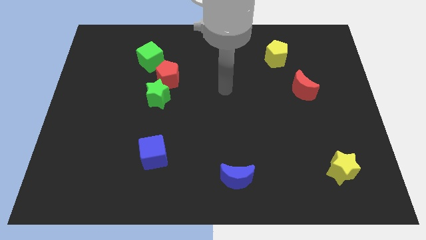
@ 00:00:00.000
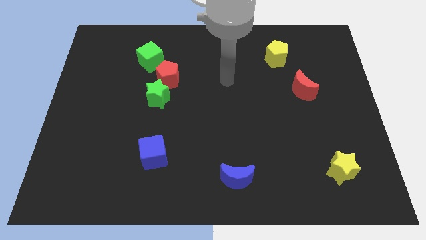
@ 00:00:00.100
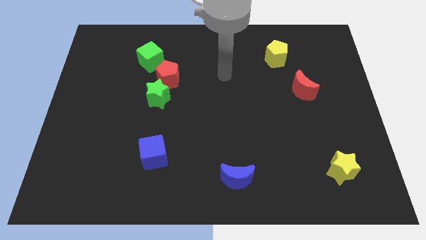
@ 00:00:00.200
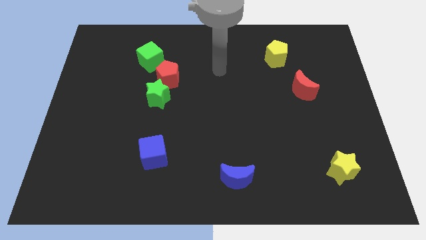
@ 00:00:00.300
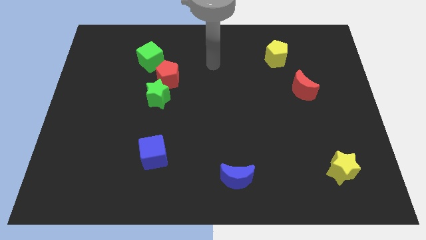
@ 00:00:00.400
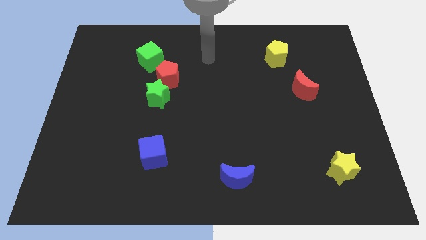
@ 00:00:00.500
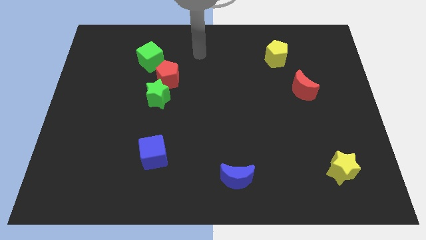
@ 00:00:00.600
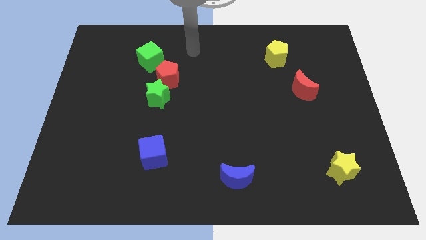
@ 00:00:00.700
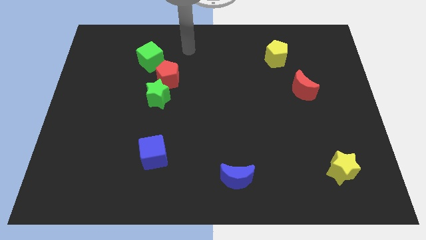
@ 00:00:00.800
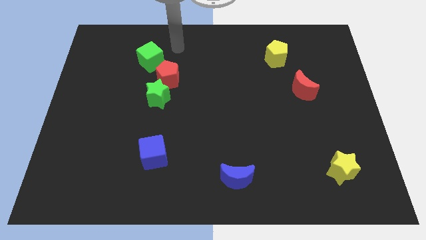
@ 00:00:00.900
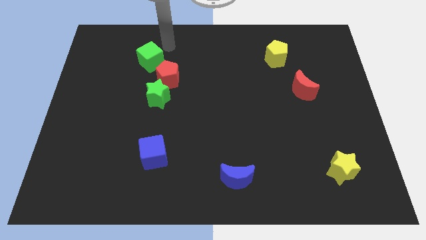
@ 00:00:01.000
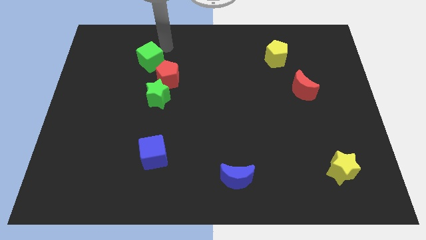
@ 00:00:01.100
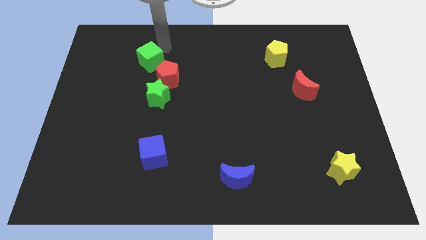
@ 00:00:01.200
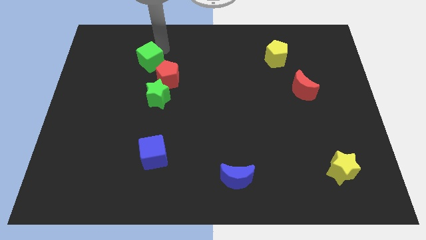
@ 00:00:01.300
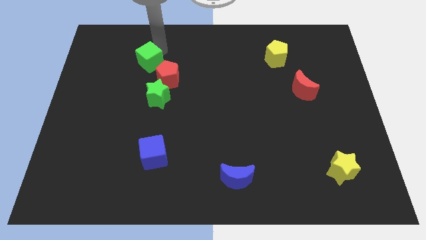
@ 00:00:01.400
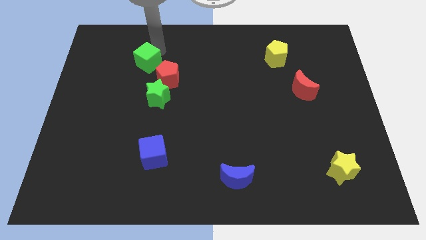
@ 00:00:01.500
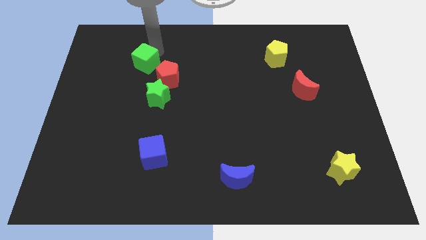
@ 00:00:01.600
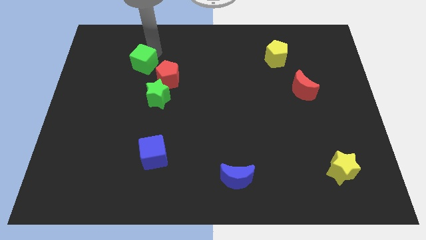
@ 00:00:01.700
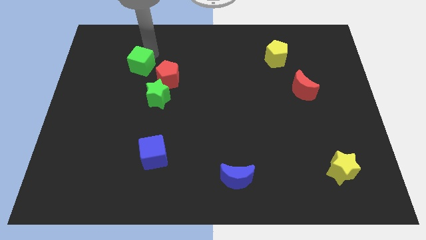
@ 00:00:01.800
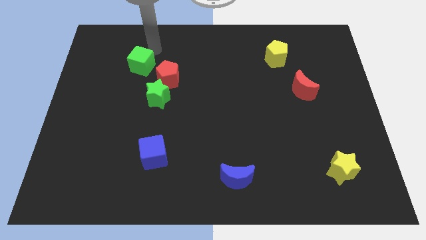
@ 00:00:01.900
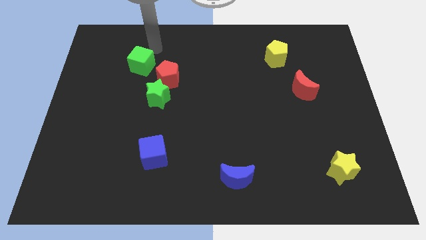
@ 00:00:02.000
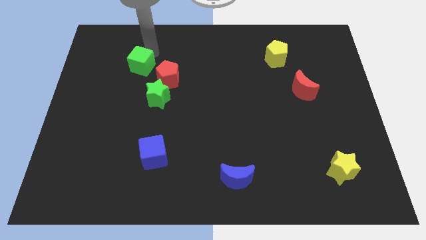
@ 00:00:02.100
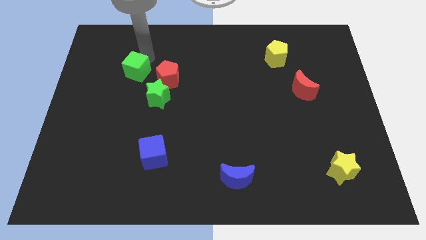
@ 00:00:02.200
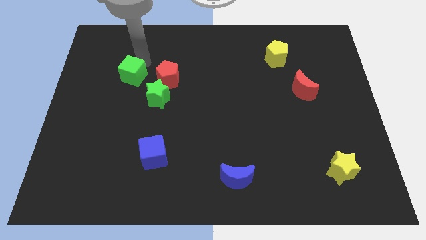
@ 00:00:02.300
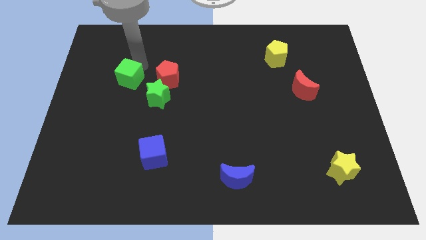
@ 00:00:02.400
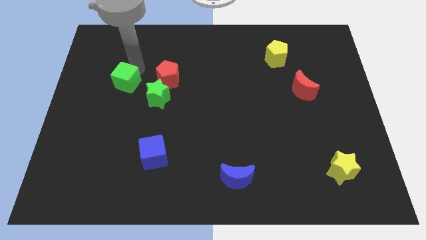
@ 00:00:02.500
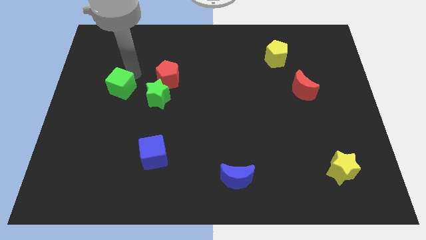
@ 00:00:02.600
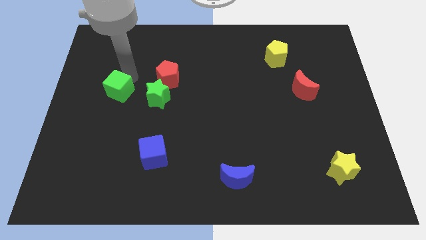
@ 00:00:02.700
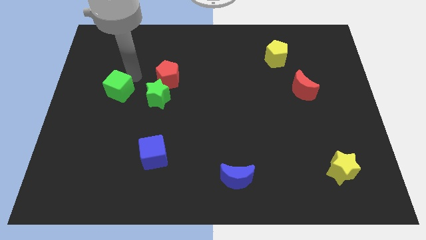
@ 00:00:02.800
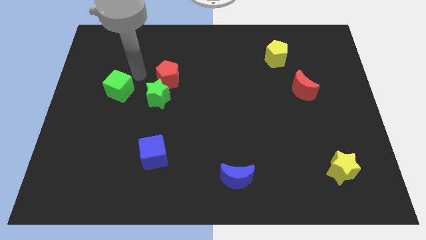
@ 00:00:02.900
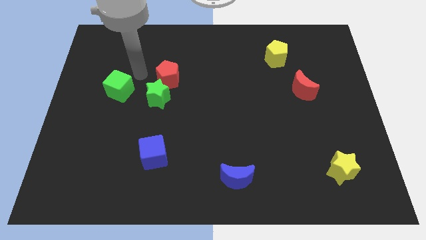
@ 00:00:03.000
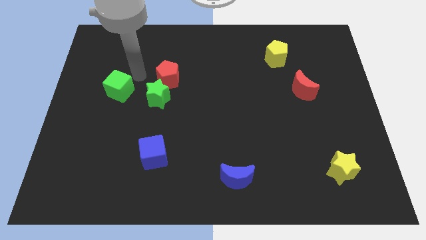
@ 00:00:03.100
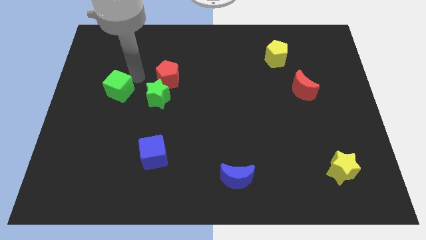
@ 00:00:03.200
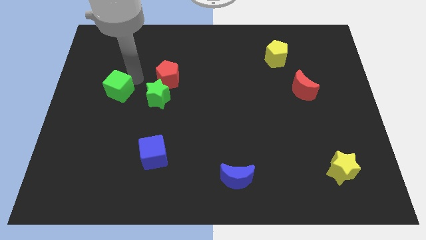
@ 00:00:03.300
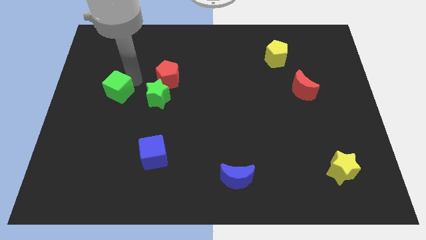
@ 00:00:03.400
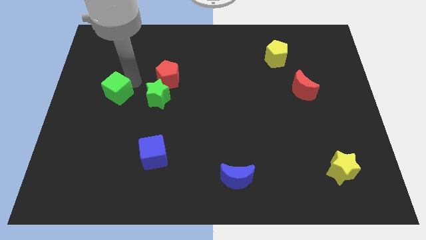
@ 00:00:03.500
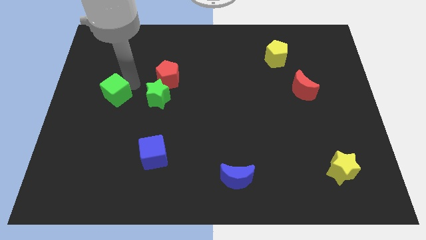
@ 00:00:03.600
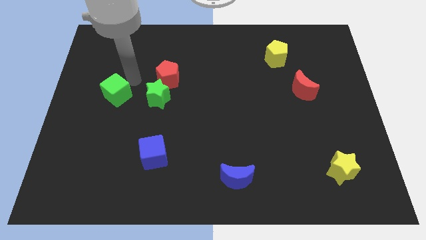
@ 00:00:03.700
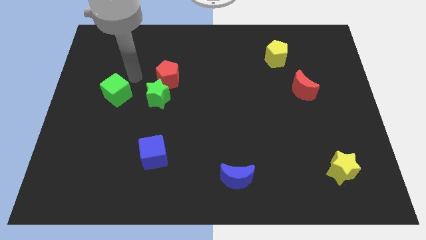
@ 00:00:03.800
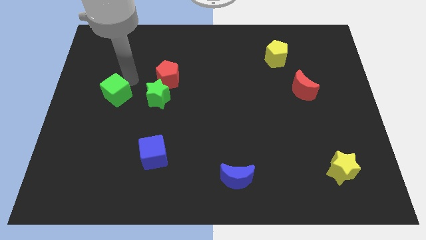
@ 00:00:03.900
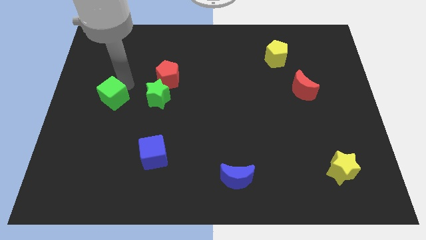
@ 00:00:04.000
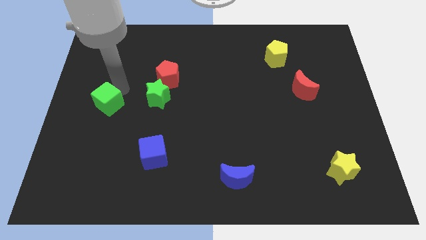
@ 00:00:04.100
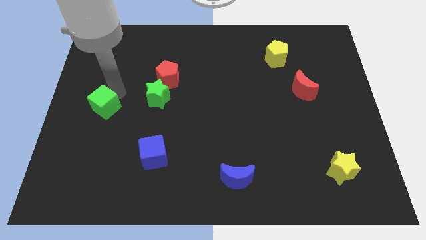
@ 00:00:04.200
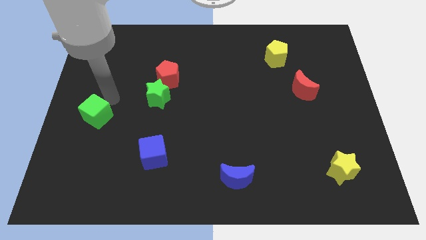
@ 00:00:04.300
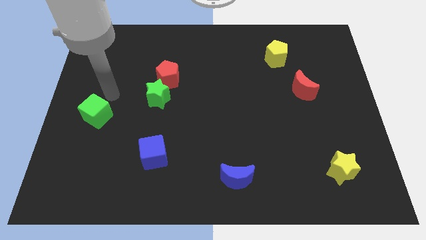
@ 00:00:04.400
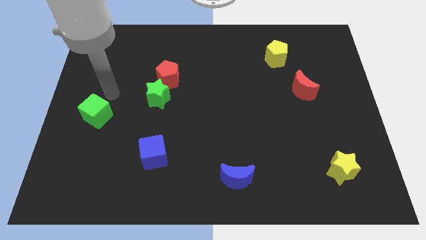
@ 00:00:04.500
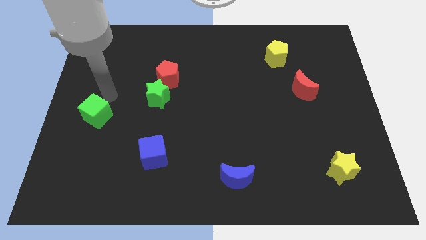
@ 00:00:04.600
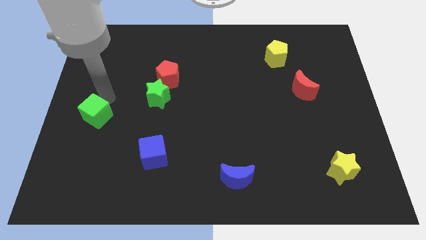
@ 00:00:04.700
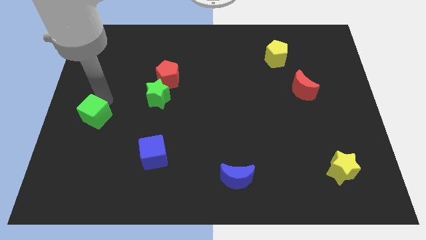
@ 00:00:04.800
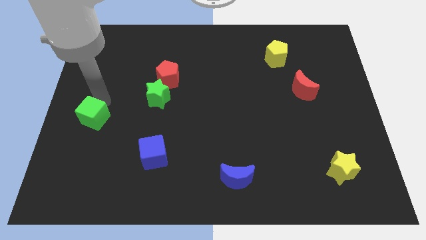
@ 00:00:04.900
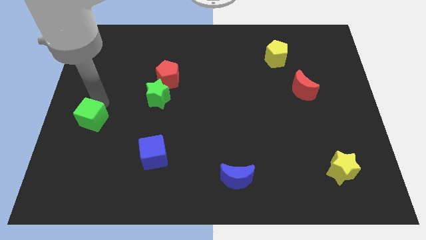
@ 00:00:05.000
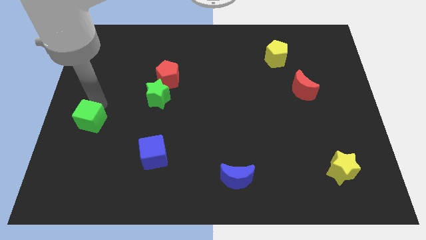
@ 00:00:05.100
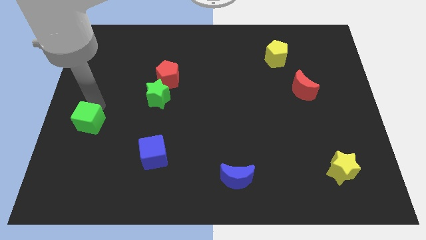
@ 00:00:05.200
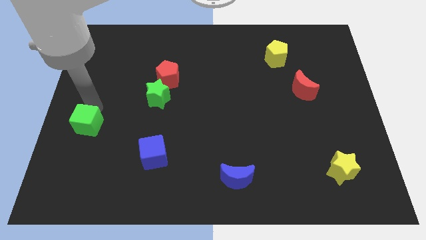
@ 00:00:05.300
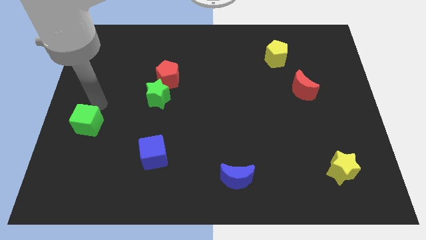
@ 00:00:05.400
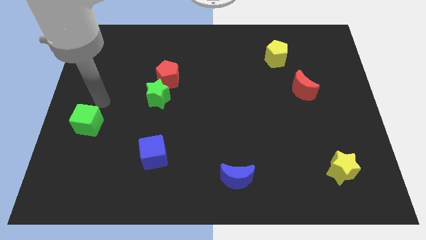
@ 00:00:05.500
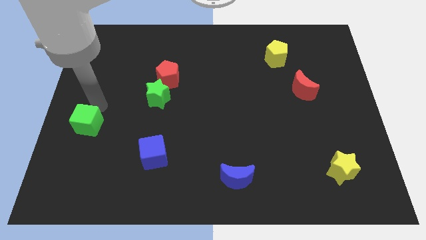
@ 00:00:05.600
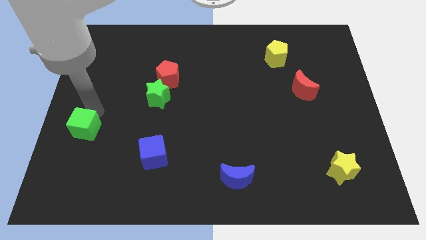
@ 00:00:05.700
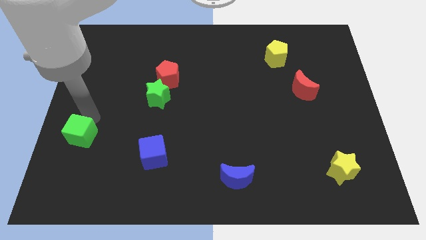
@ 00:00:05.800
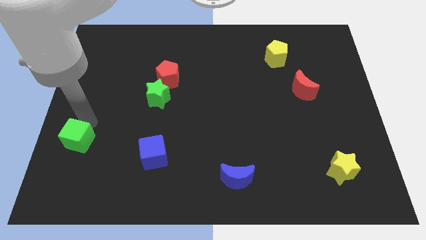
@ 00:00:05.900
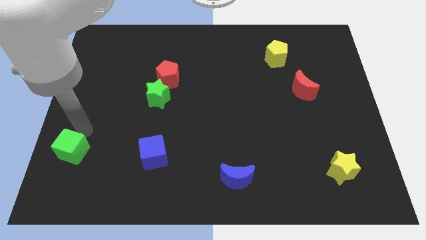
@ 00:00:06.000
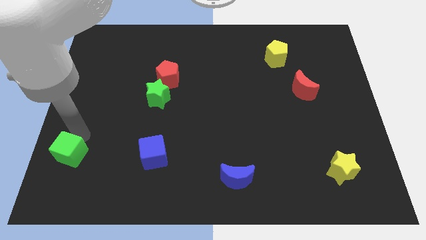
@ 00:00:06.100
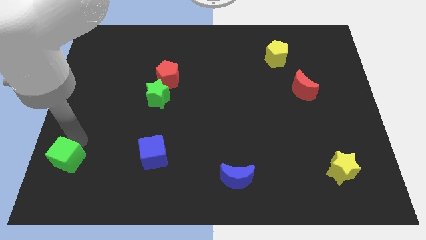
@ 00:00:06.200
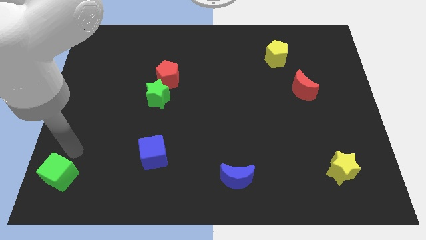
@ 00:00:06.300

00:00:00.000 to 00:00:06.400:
push the green cube to the bottom left of the board
